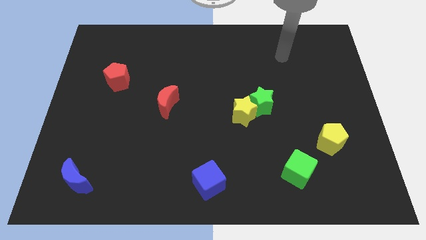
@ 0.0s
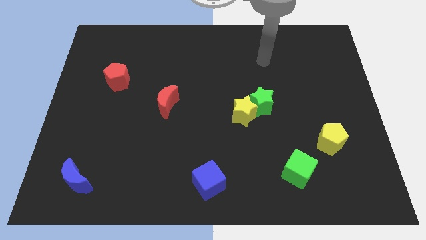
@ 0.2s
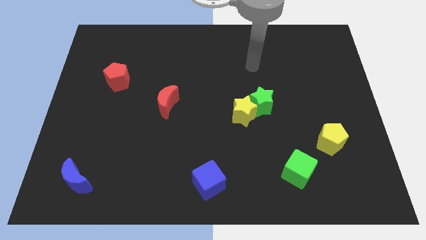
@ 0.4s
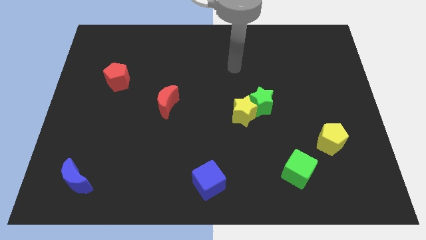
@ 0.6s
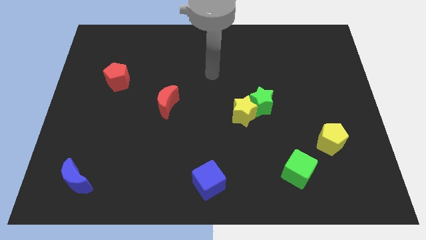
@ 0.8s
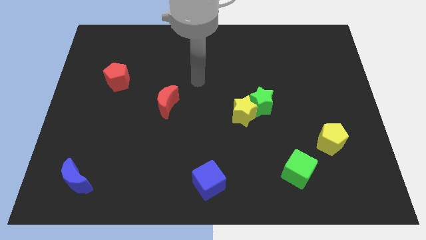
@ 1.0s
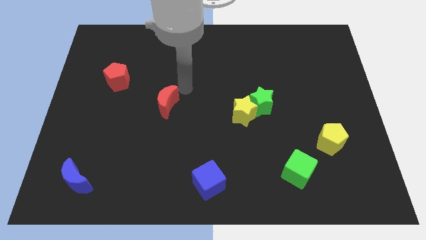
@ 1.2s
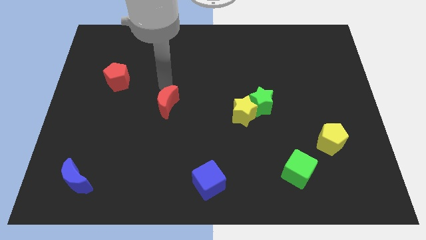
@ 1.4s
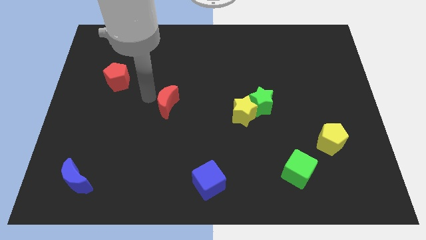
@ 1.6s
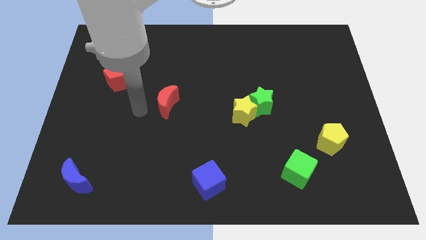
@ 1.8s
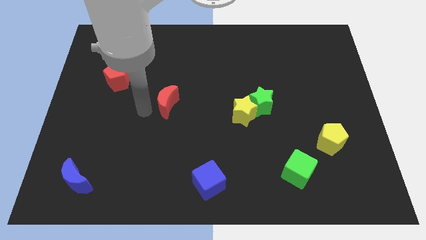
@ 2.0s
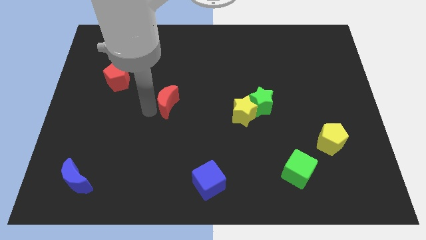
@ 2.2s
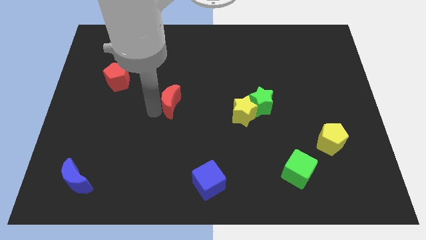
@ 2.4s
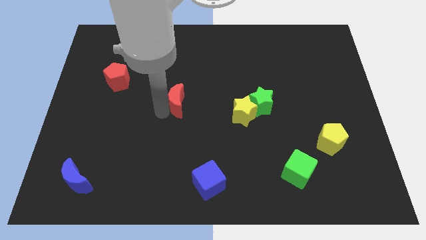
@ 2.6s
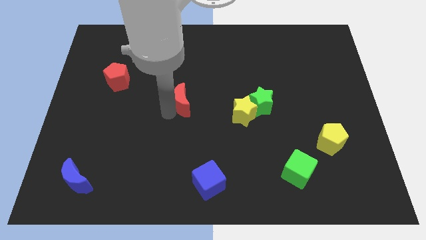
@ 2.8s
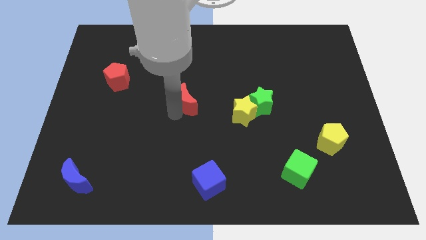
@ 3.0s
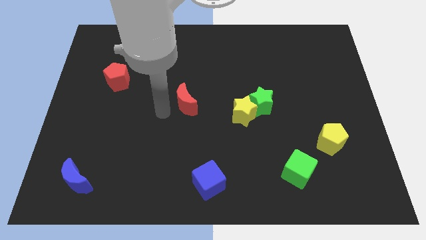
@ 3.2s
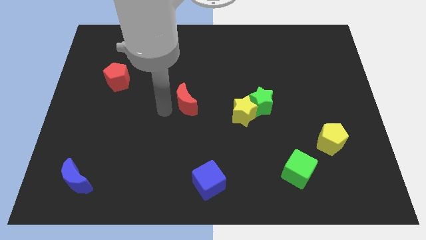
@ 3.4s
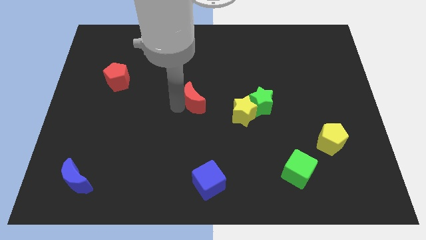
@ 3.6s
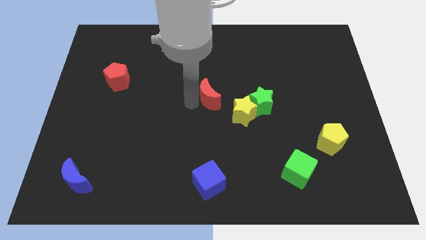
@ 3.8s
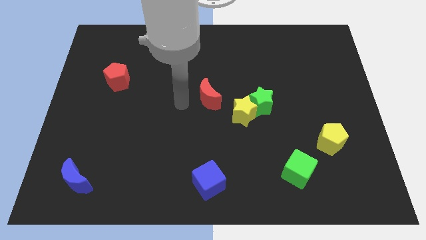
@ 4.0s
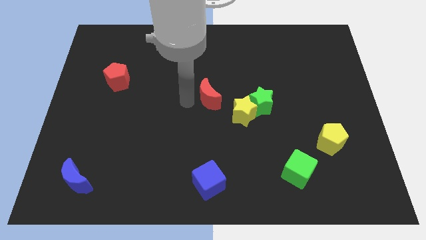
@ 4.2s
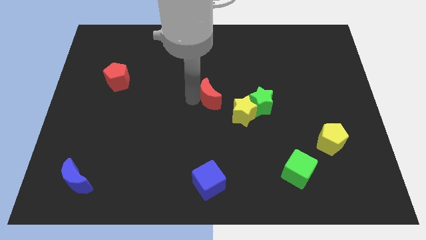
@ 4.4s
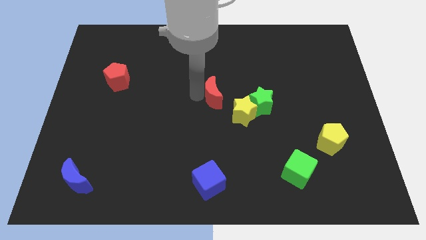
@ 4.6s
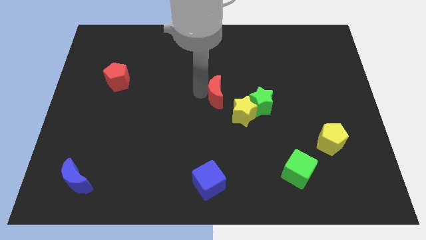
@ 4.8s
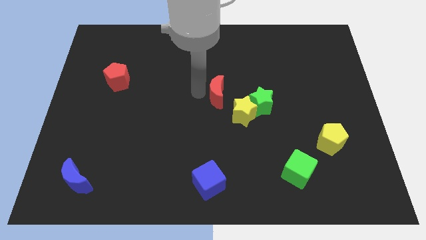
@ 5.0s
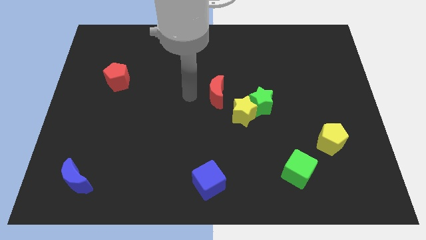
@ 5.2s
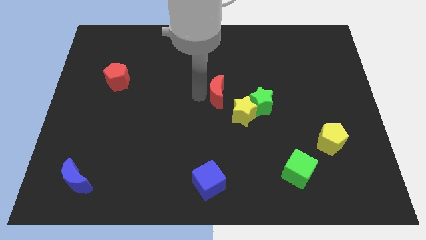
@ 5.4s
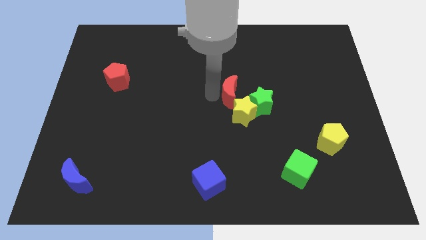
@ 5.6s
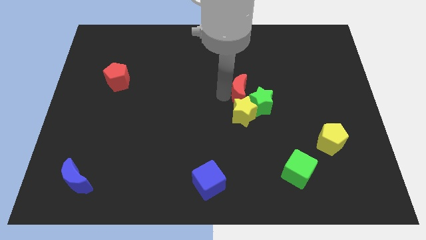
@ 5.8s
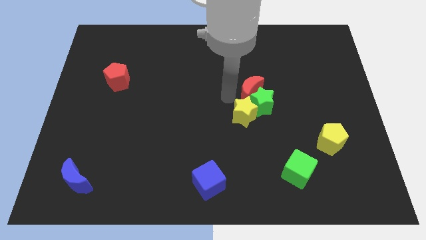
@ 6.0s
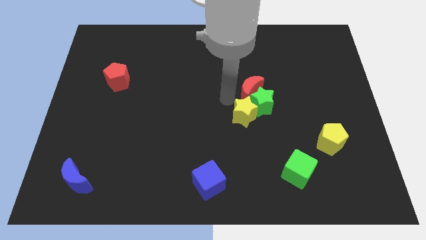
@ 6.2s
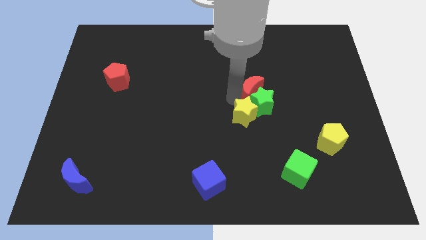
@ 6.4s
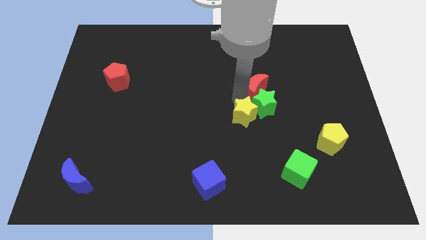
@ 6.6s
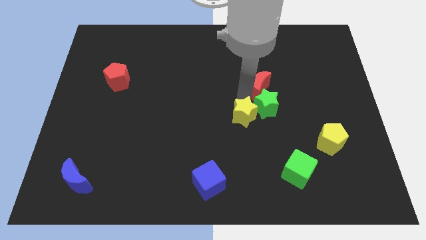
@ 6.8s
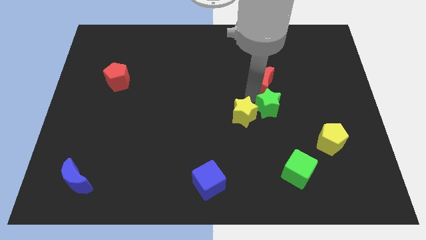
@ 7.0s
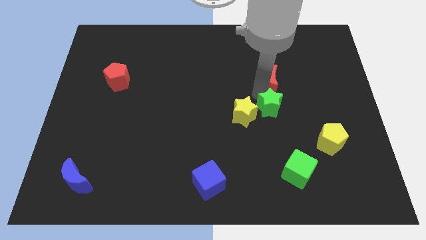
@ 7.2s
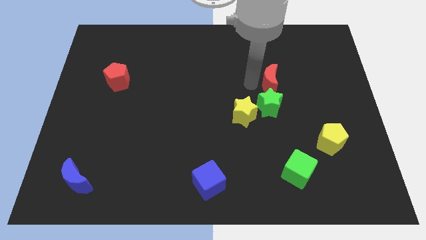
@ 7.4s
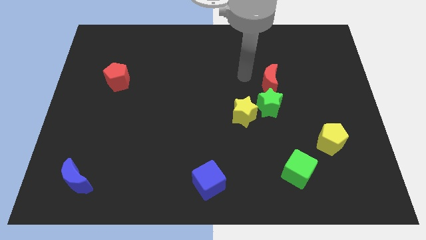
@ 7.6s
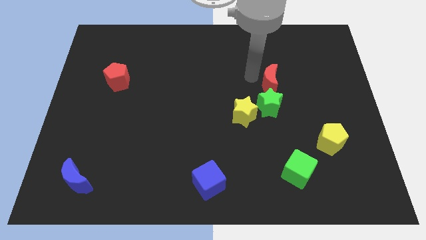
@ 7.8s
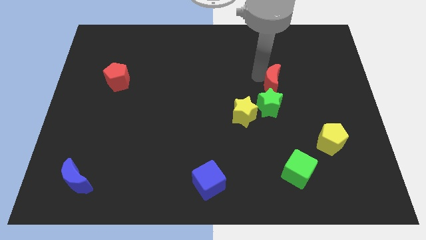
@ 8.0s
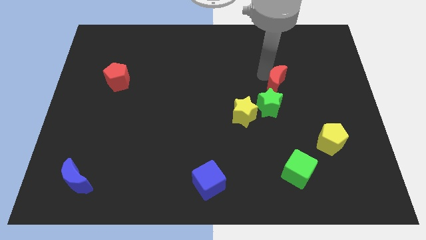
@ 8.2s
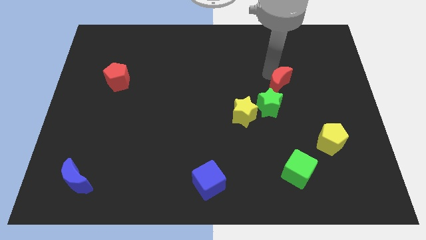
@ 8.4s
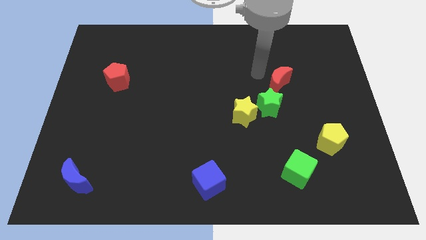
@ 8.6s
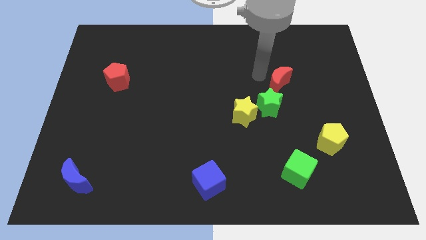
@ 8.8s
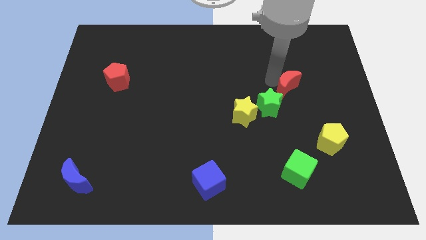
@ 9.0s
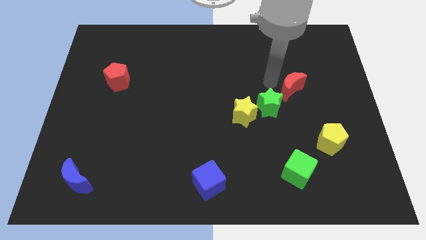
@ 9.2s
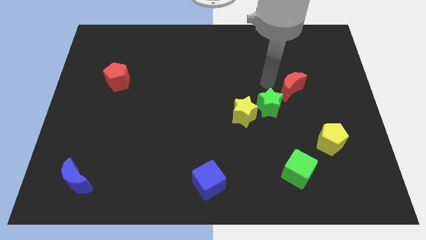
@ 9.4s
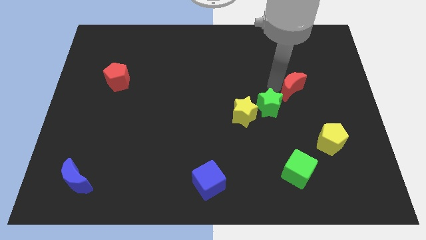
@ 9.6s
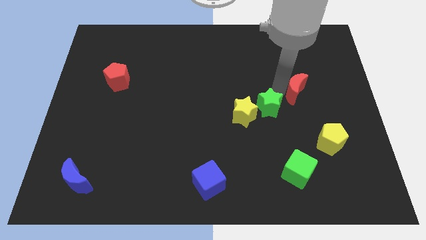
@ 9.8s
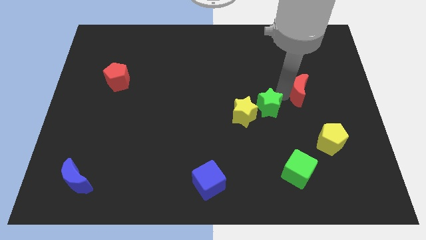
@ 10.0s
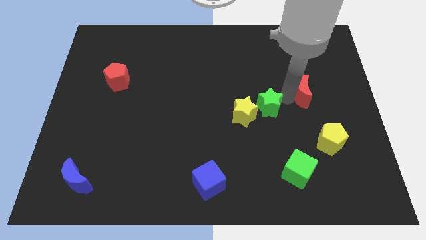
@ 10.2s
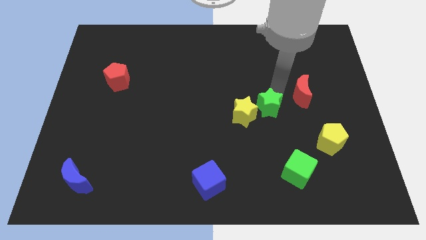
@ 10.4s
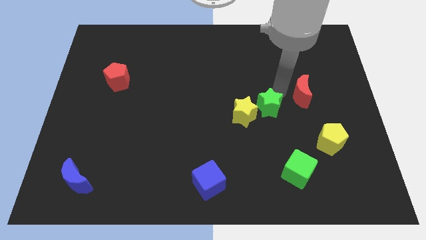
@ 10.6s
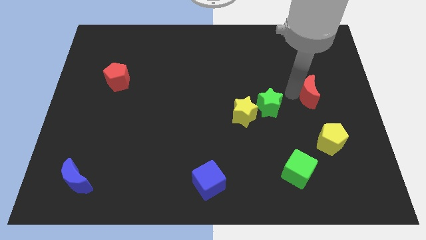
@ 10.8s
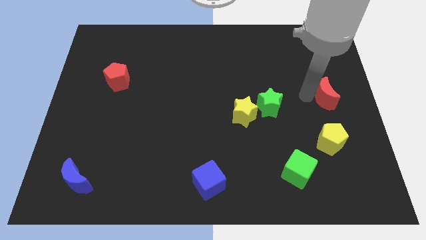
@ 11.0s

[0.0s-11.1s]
slide the red moon to the right side of the board

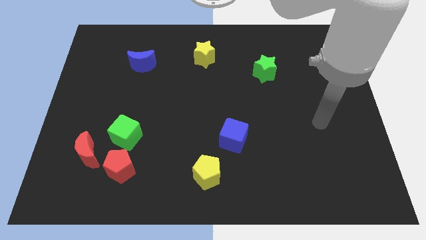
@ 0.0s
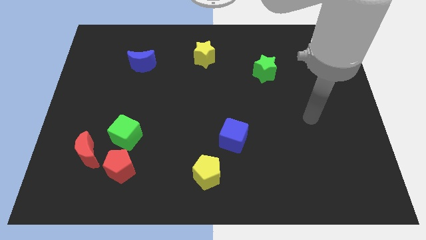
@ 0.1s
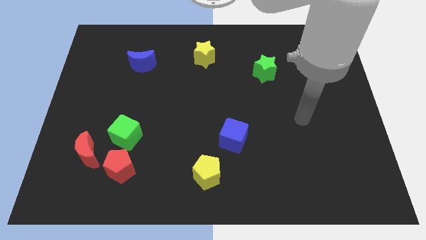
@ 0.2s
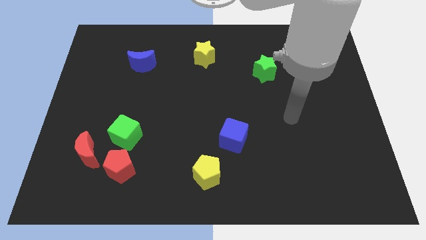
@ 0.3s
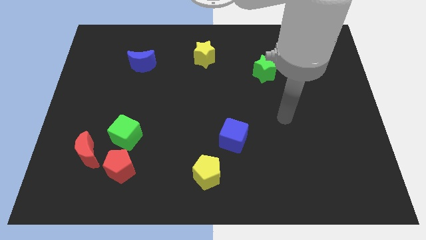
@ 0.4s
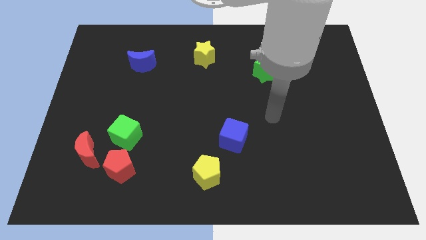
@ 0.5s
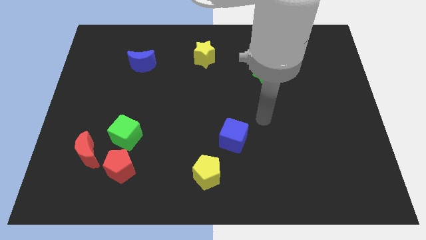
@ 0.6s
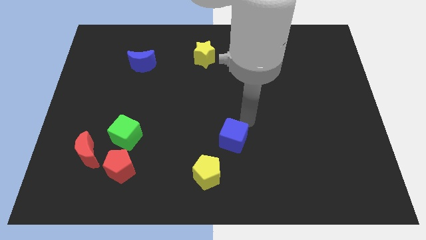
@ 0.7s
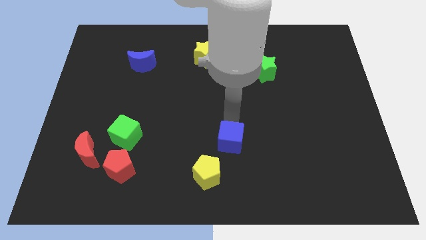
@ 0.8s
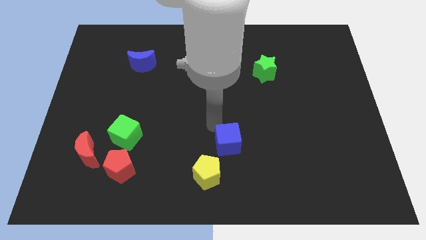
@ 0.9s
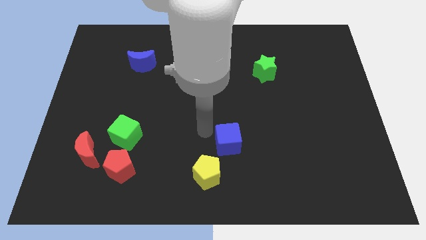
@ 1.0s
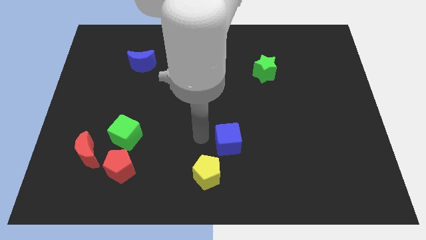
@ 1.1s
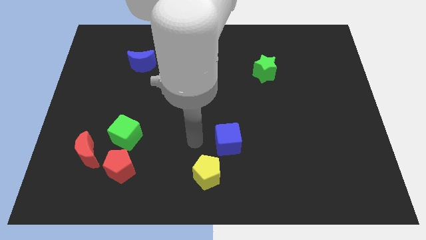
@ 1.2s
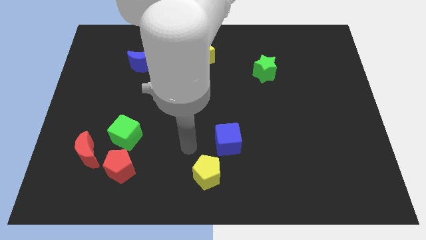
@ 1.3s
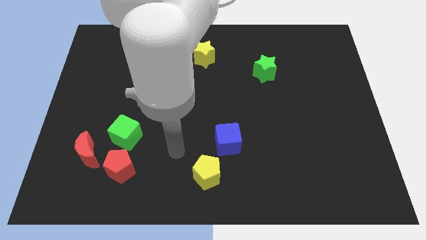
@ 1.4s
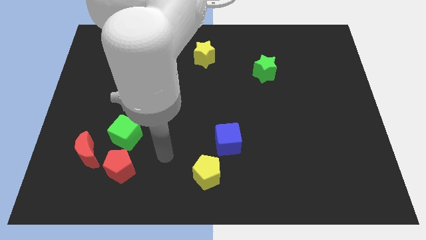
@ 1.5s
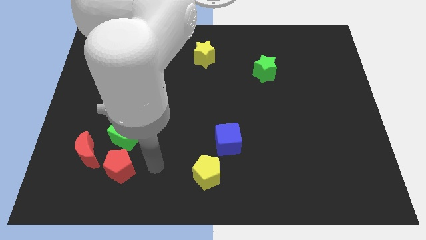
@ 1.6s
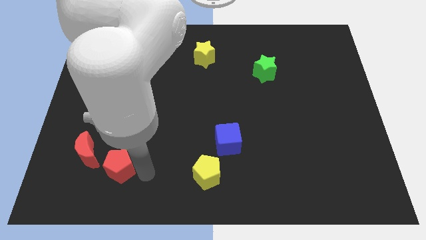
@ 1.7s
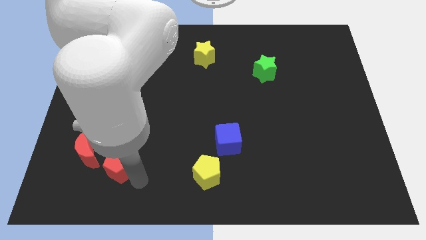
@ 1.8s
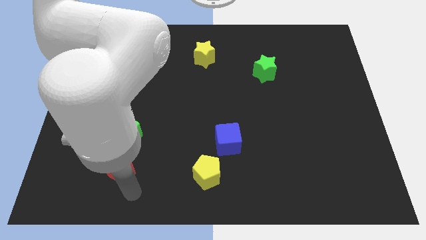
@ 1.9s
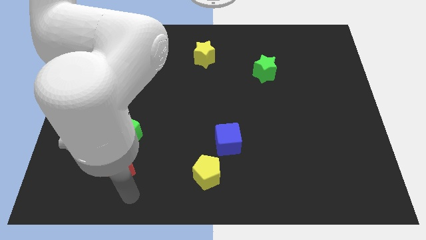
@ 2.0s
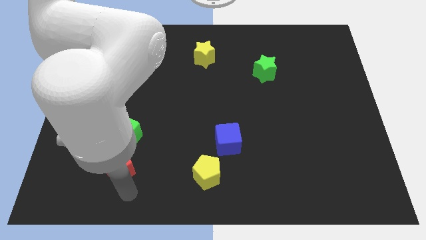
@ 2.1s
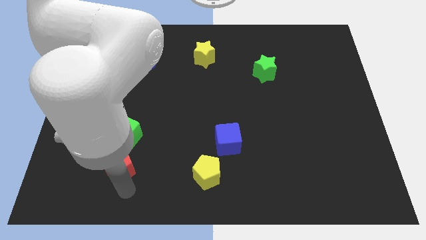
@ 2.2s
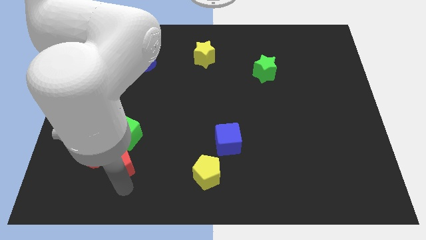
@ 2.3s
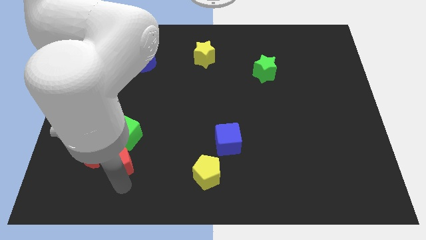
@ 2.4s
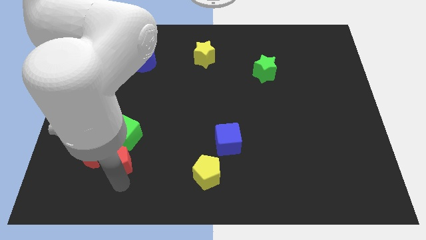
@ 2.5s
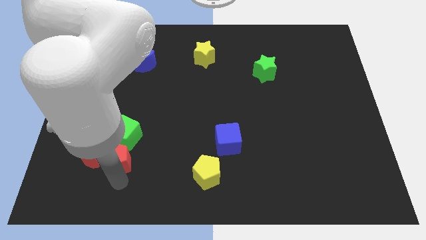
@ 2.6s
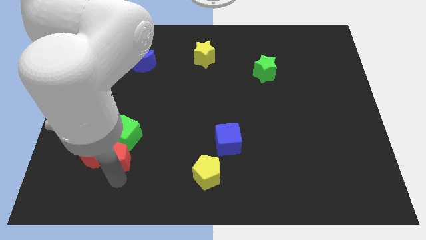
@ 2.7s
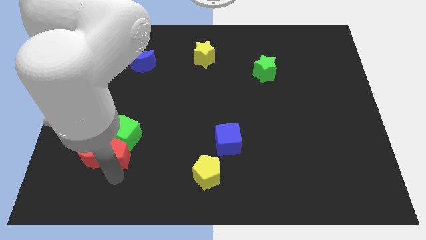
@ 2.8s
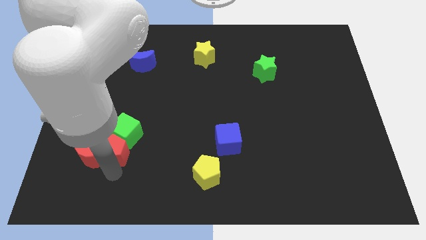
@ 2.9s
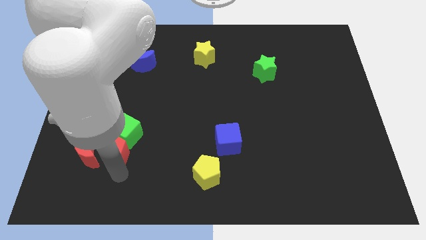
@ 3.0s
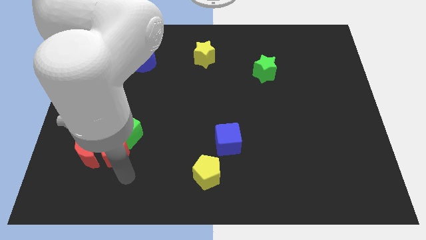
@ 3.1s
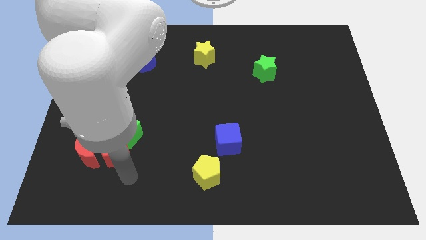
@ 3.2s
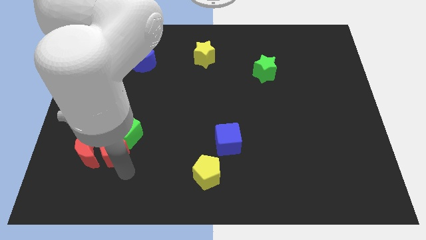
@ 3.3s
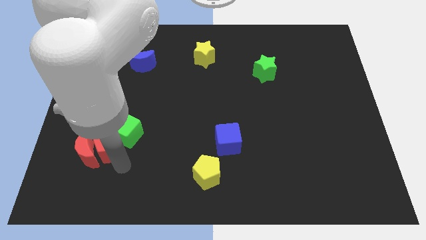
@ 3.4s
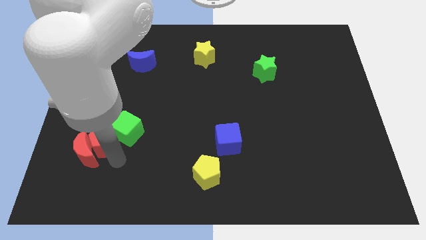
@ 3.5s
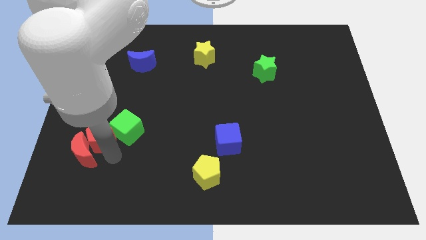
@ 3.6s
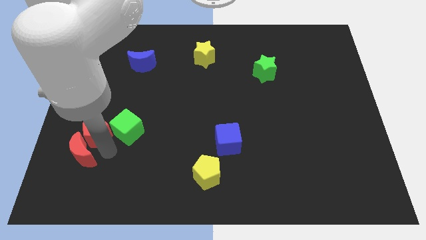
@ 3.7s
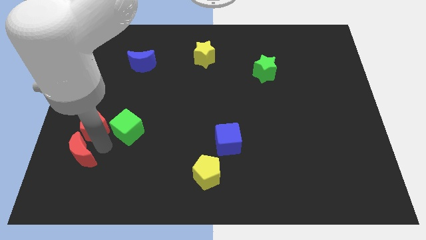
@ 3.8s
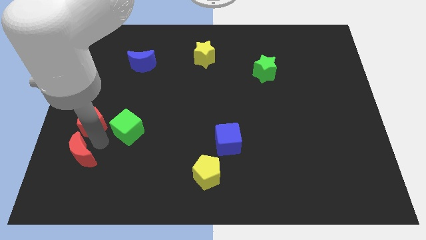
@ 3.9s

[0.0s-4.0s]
move the red pentagon to the center left
